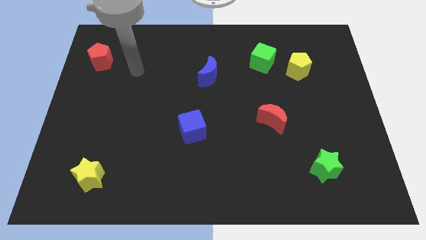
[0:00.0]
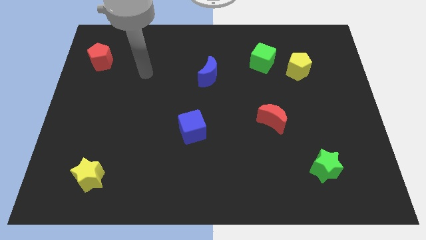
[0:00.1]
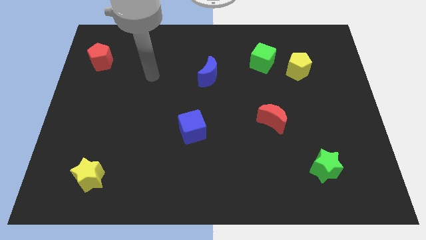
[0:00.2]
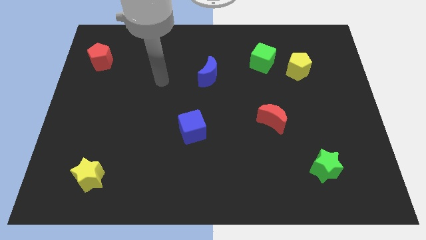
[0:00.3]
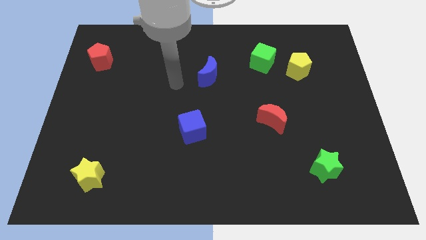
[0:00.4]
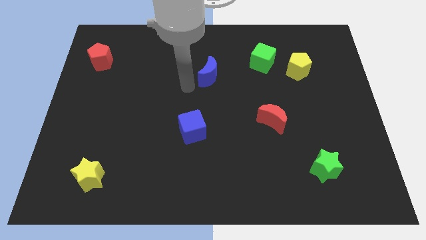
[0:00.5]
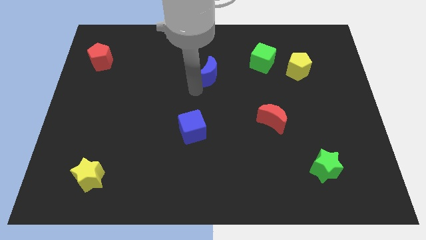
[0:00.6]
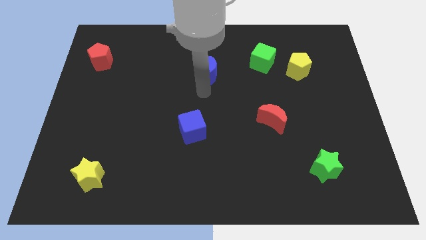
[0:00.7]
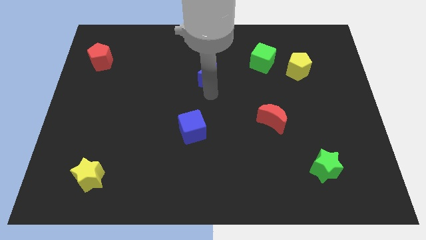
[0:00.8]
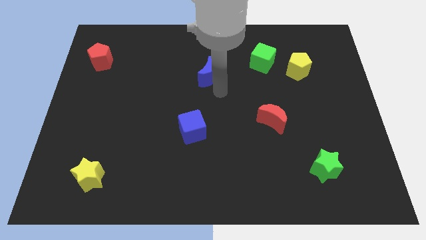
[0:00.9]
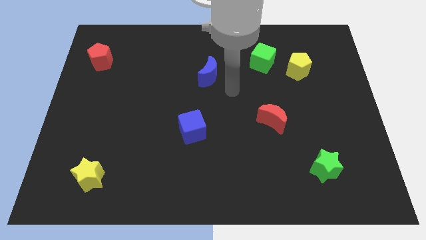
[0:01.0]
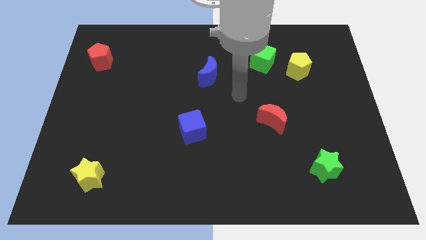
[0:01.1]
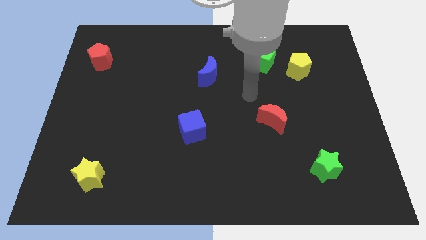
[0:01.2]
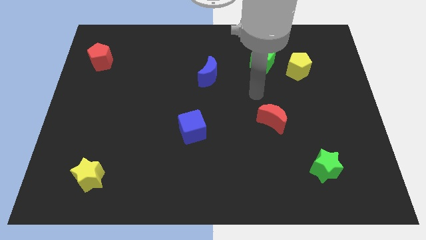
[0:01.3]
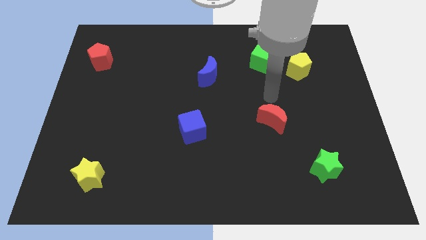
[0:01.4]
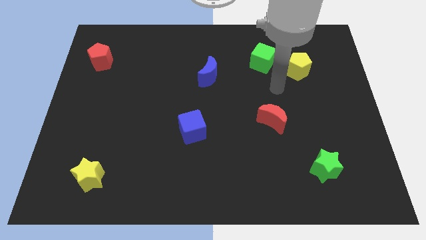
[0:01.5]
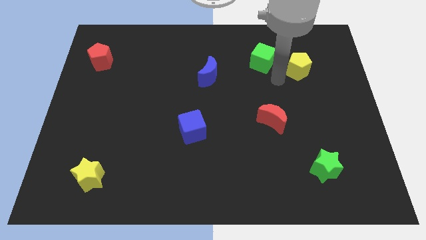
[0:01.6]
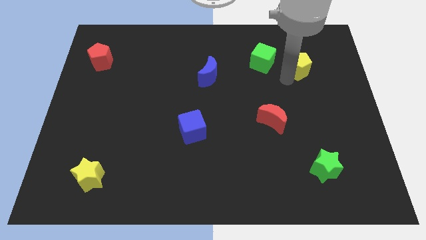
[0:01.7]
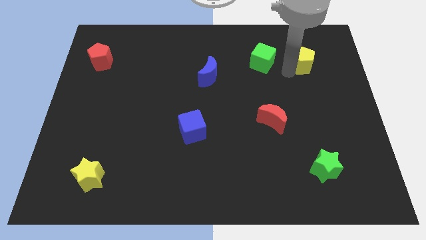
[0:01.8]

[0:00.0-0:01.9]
pull the green cube apart from the yellow pentagon

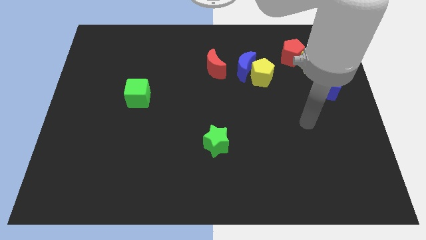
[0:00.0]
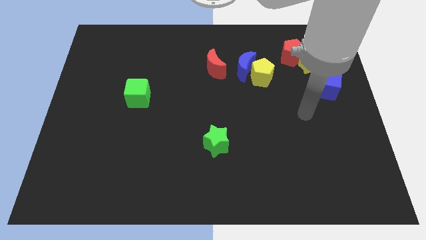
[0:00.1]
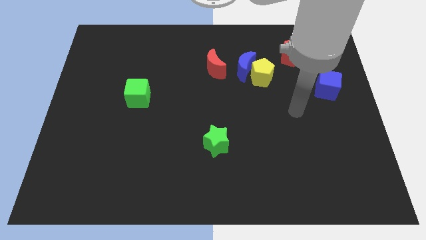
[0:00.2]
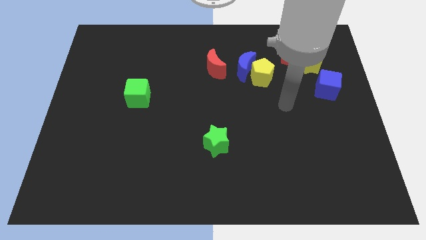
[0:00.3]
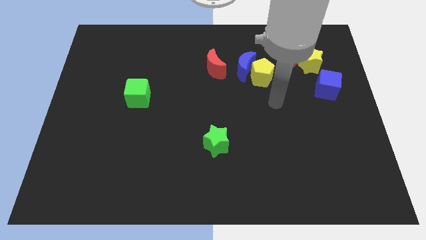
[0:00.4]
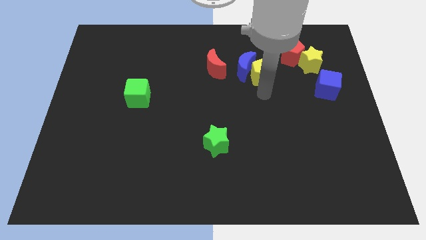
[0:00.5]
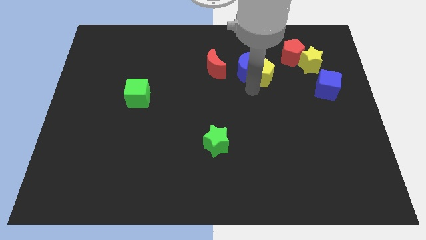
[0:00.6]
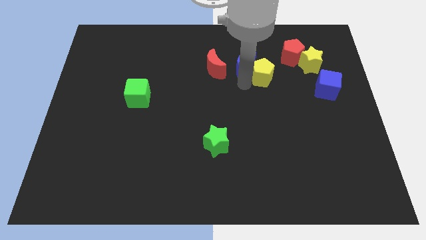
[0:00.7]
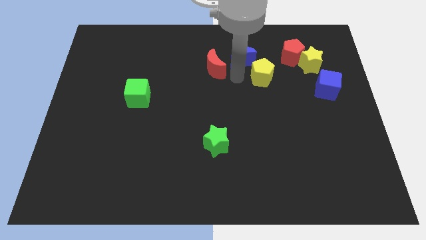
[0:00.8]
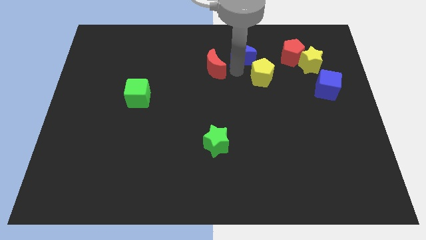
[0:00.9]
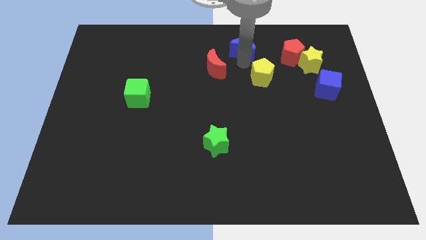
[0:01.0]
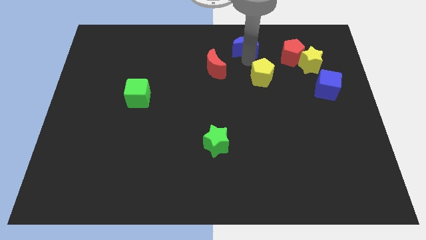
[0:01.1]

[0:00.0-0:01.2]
move the yellow pentagon away from the blue moon

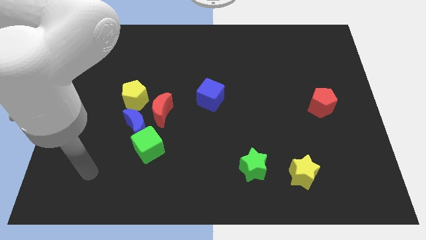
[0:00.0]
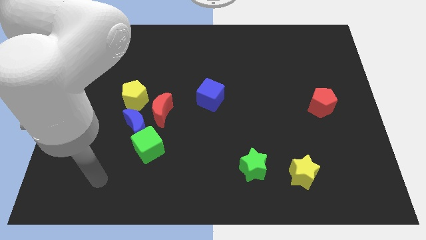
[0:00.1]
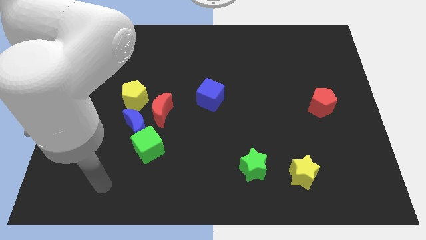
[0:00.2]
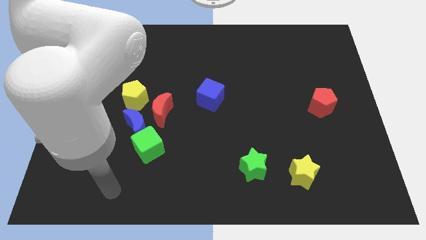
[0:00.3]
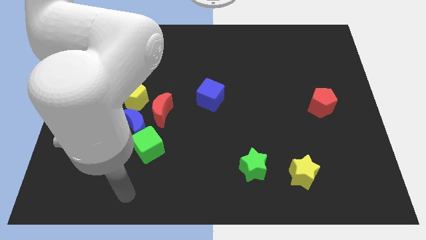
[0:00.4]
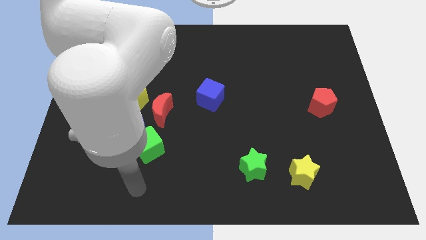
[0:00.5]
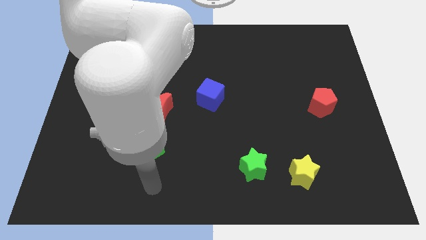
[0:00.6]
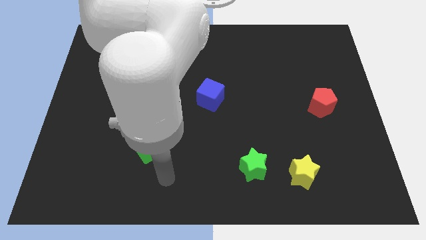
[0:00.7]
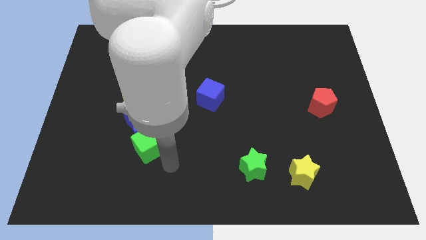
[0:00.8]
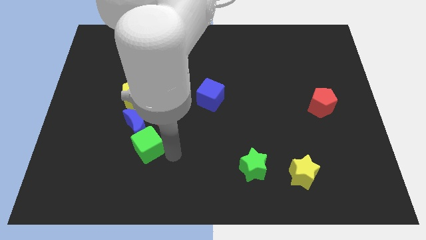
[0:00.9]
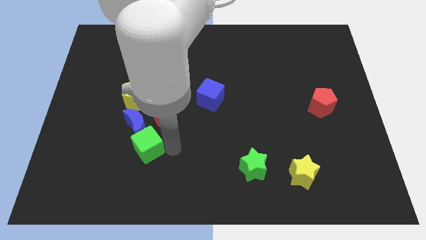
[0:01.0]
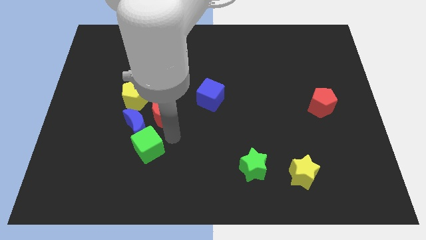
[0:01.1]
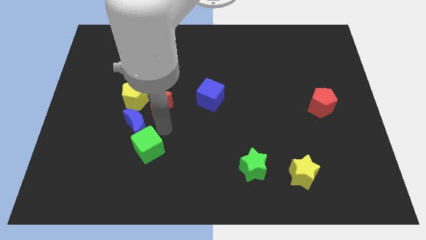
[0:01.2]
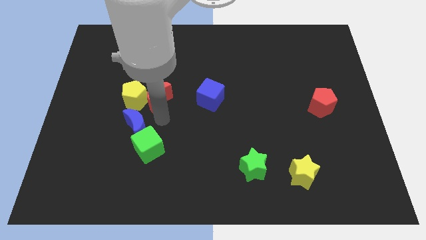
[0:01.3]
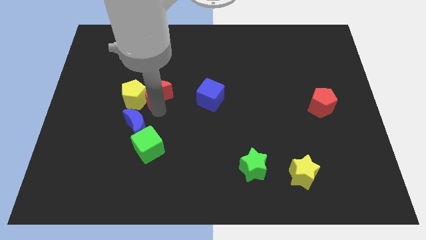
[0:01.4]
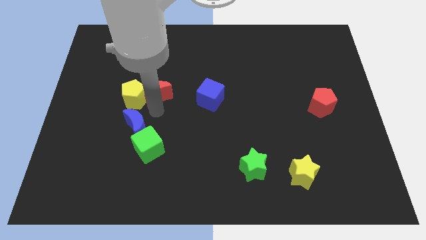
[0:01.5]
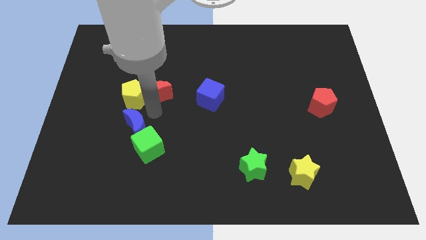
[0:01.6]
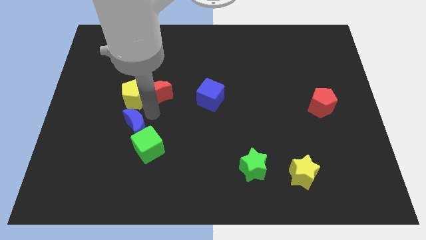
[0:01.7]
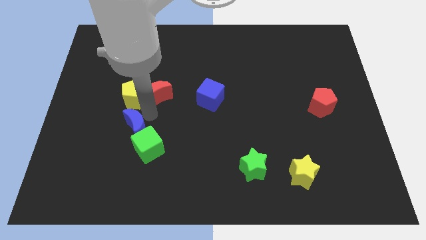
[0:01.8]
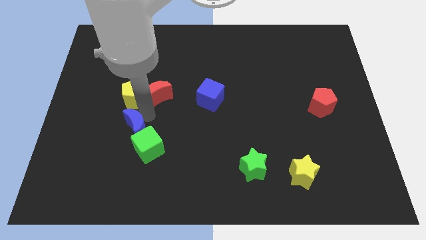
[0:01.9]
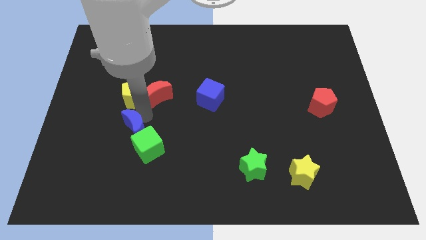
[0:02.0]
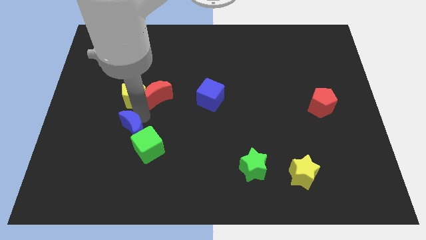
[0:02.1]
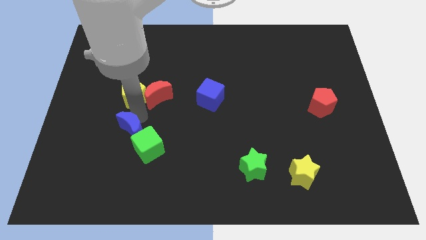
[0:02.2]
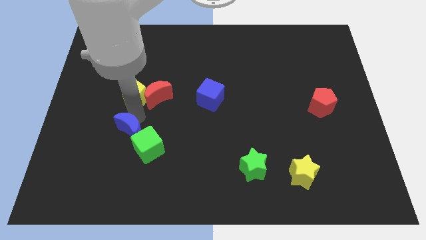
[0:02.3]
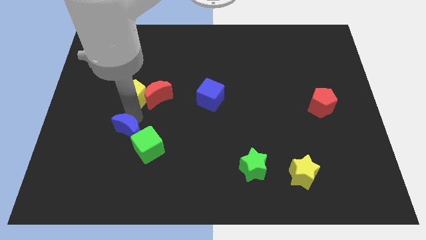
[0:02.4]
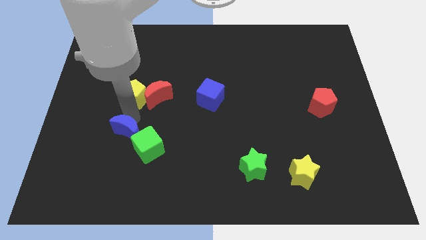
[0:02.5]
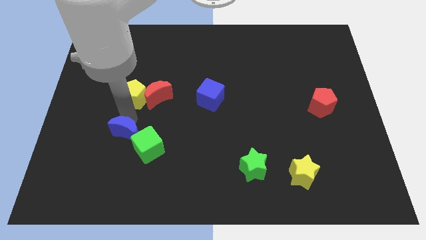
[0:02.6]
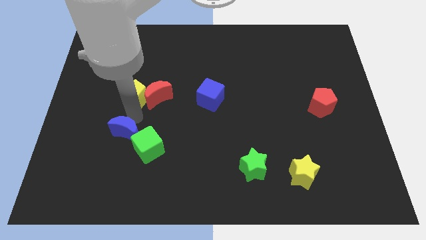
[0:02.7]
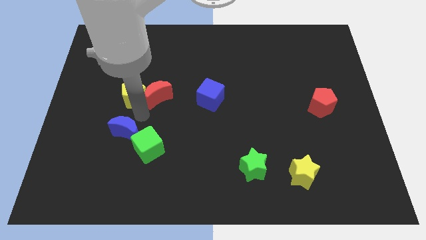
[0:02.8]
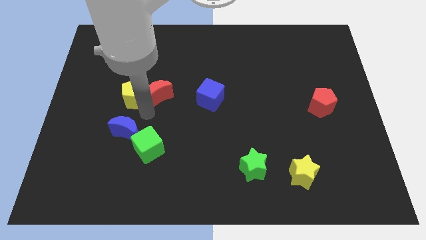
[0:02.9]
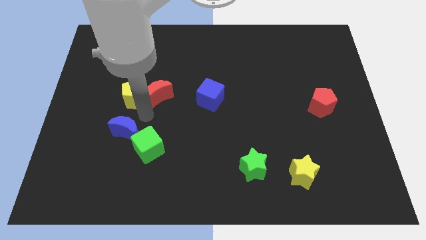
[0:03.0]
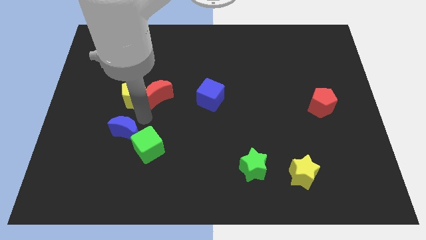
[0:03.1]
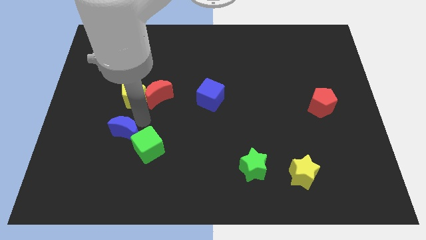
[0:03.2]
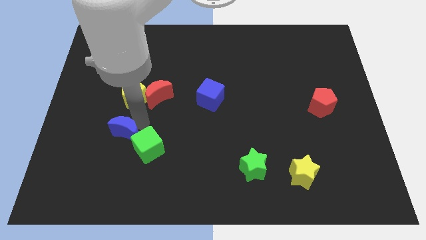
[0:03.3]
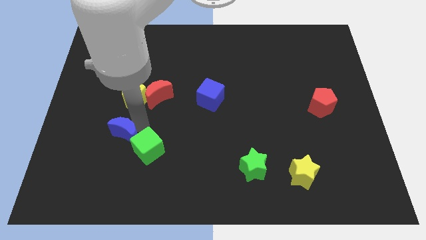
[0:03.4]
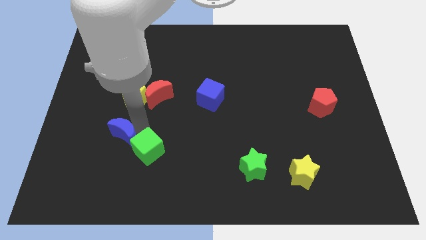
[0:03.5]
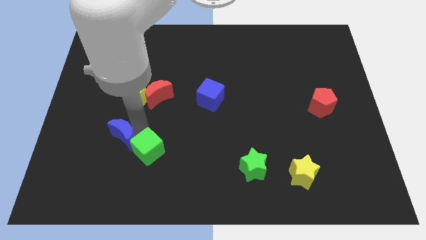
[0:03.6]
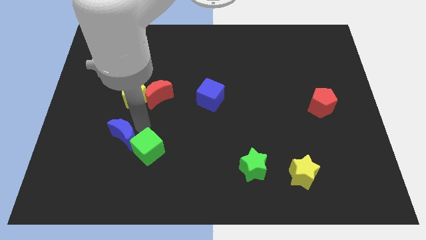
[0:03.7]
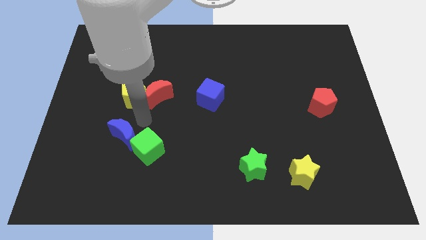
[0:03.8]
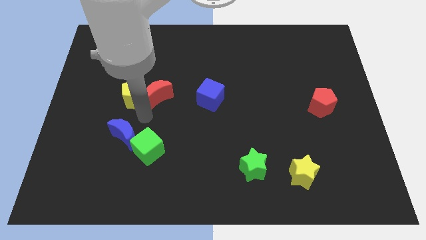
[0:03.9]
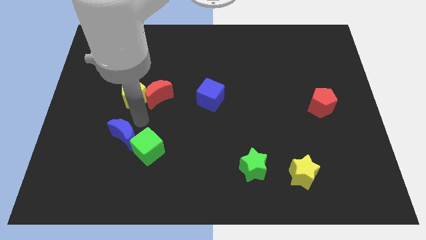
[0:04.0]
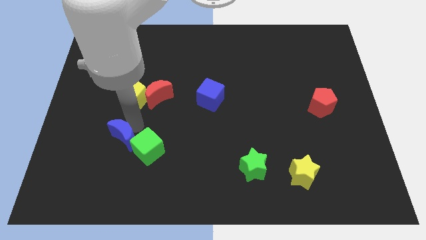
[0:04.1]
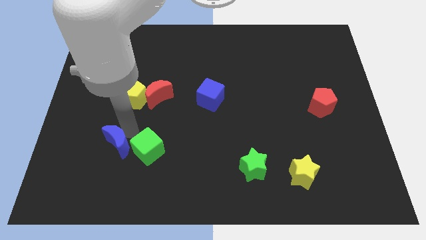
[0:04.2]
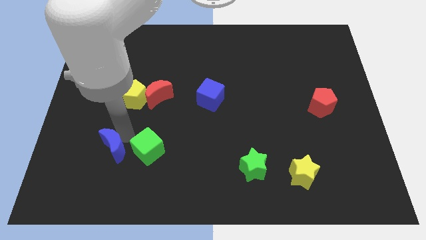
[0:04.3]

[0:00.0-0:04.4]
move the blue moon away from the green cube, red moon, and yellow pentagon

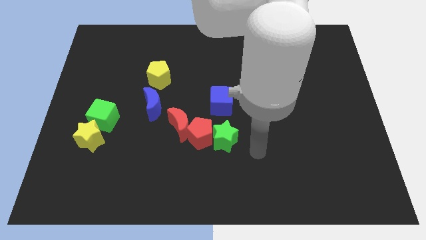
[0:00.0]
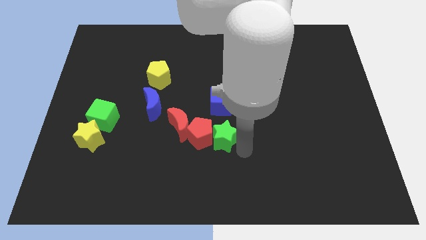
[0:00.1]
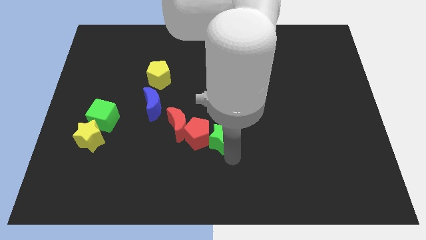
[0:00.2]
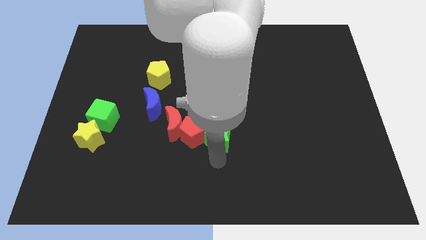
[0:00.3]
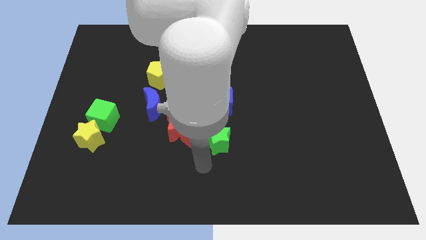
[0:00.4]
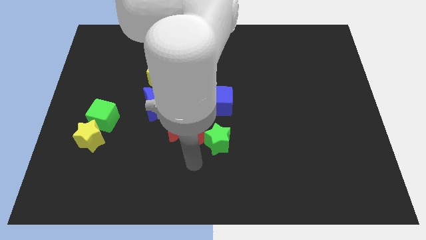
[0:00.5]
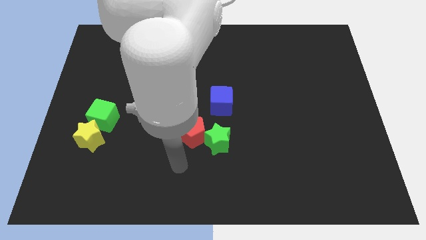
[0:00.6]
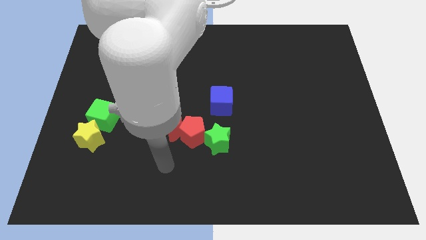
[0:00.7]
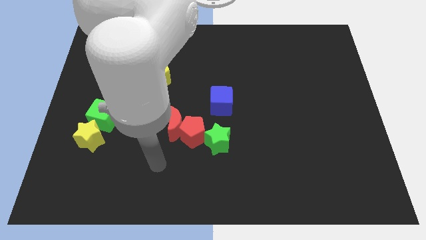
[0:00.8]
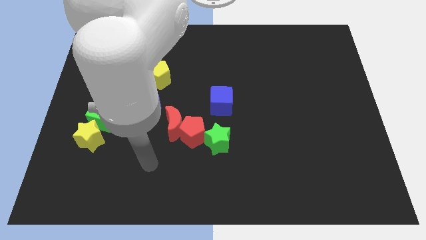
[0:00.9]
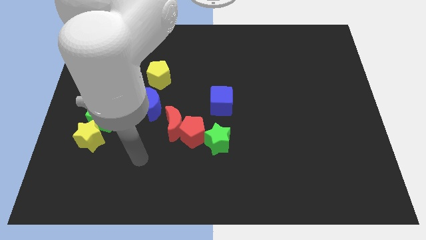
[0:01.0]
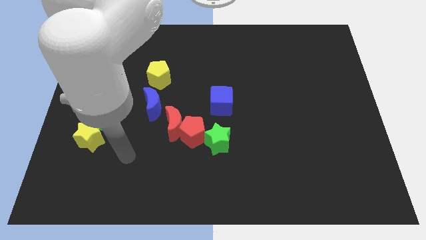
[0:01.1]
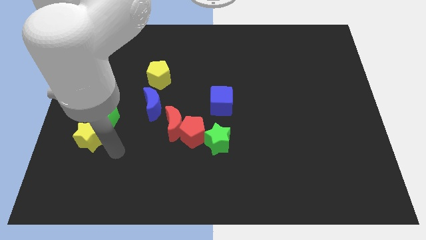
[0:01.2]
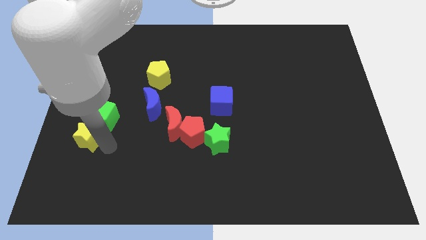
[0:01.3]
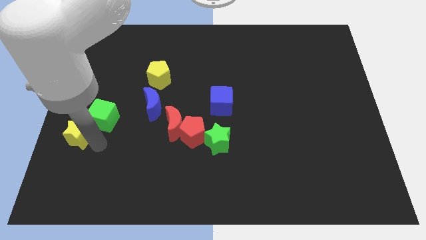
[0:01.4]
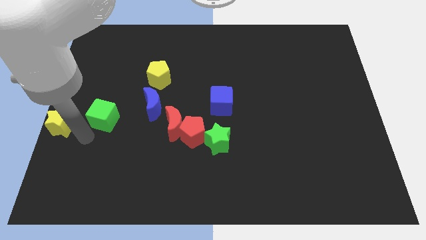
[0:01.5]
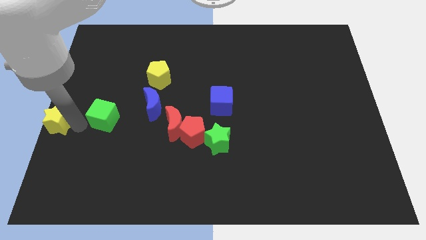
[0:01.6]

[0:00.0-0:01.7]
move the green cube away from the yellow star

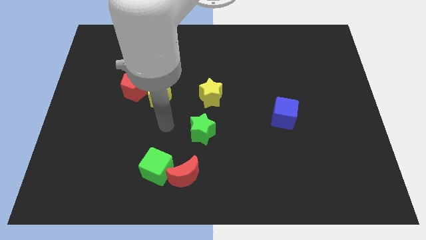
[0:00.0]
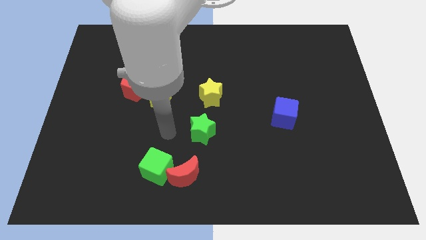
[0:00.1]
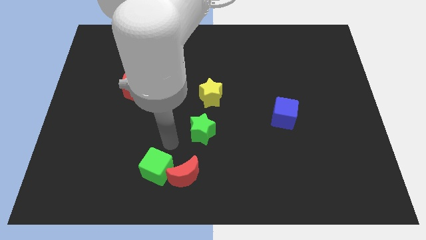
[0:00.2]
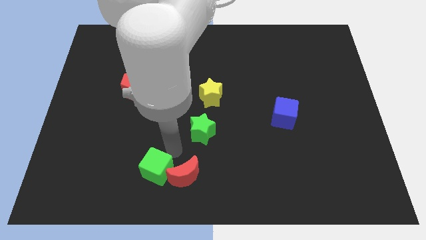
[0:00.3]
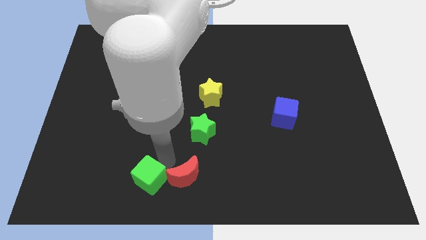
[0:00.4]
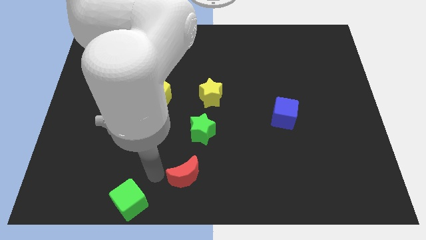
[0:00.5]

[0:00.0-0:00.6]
pull the red moon apart from the green cube
